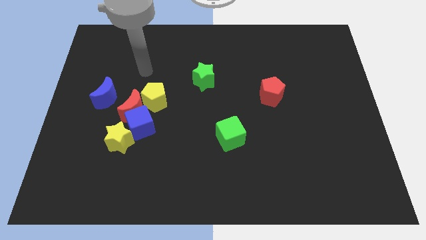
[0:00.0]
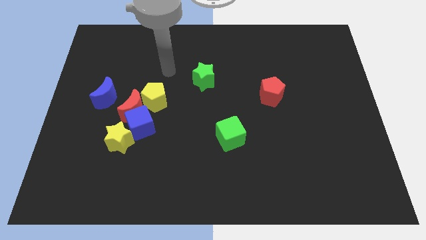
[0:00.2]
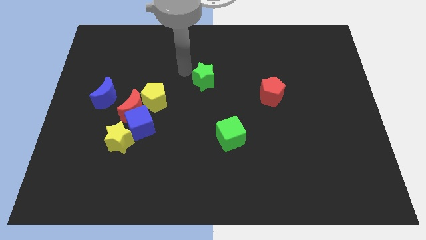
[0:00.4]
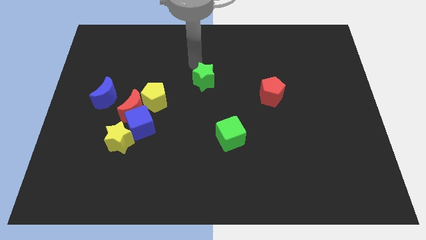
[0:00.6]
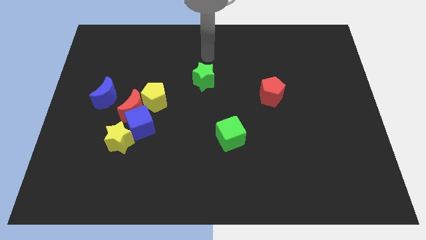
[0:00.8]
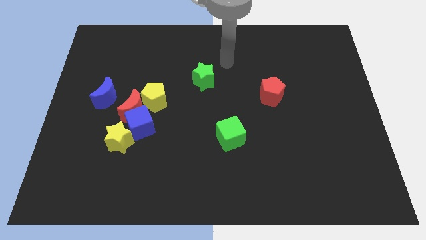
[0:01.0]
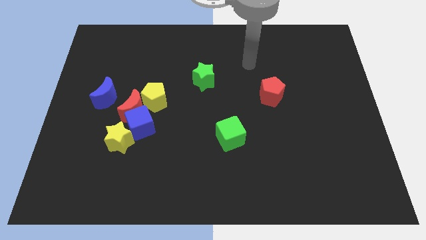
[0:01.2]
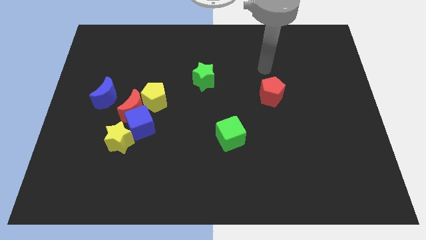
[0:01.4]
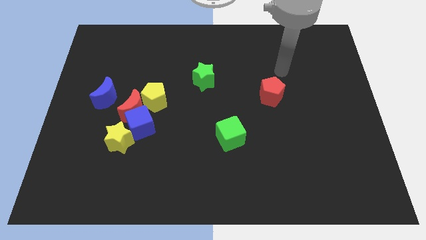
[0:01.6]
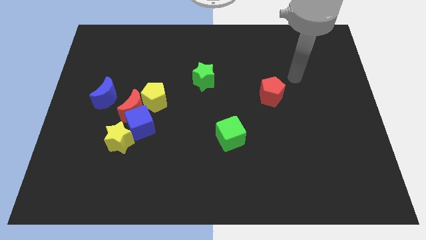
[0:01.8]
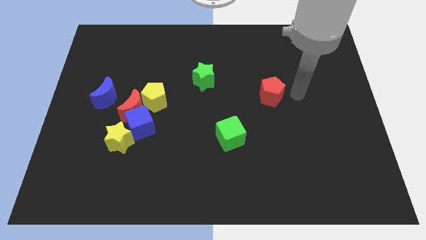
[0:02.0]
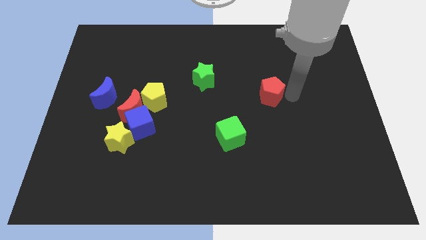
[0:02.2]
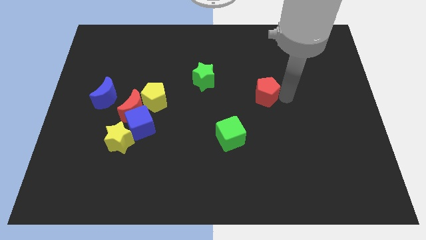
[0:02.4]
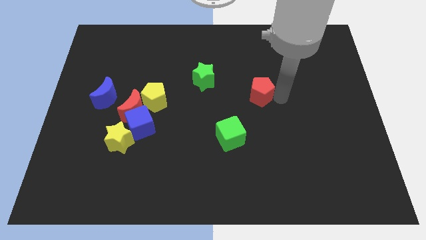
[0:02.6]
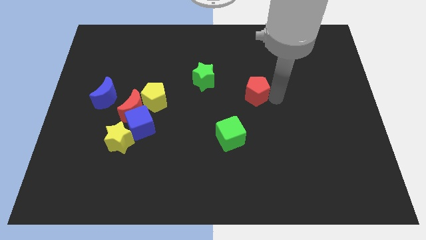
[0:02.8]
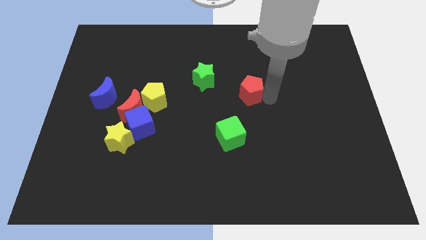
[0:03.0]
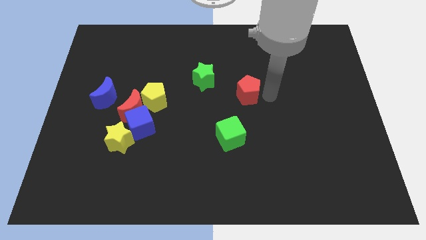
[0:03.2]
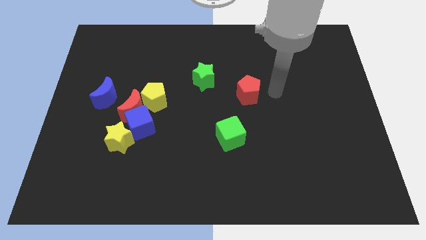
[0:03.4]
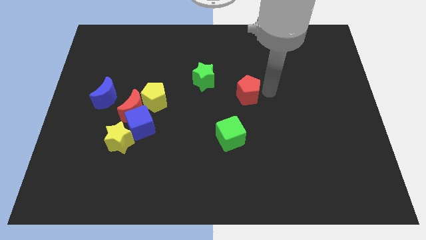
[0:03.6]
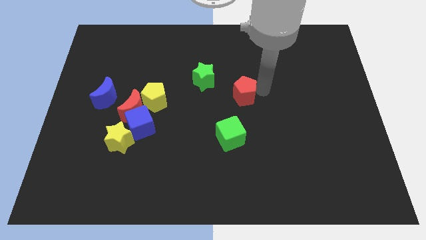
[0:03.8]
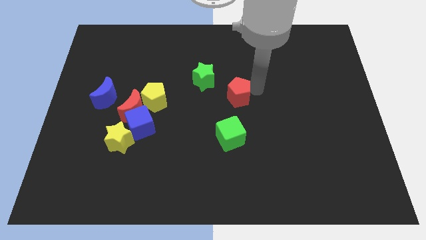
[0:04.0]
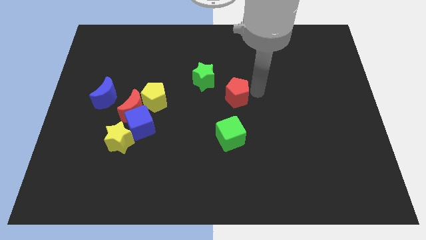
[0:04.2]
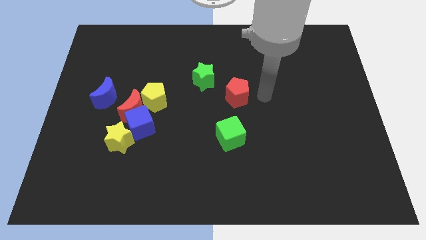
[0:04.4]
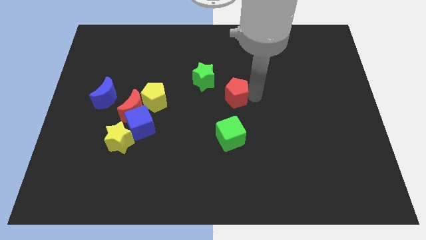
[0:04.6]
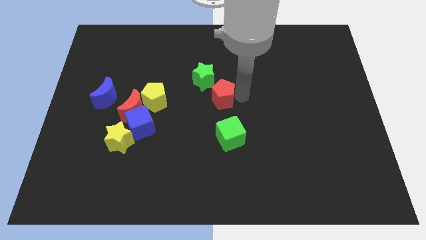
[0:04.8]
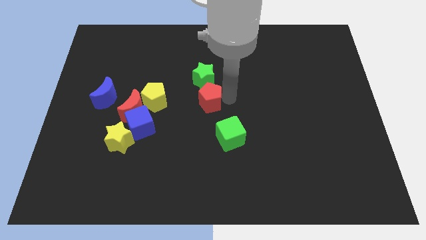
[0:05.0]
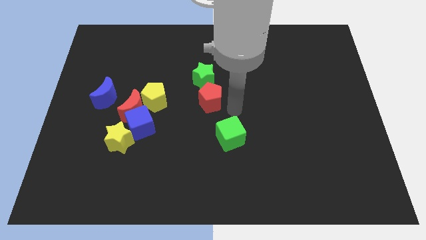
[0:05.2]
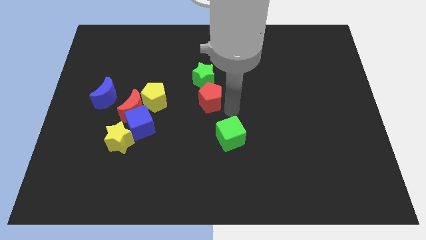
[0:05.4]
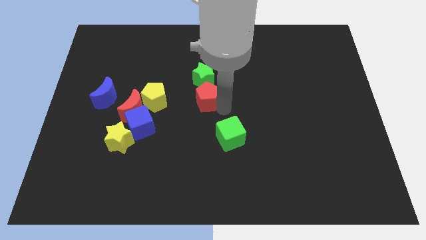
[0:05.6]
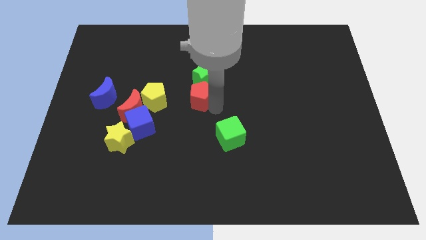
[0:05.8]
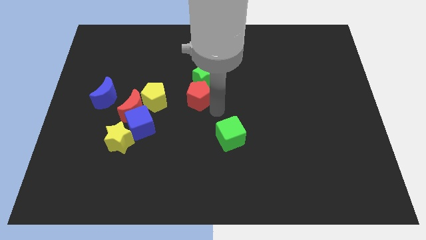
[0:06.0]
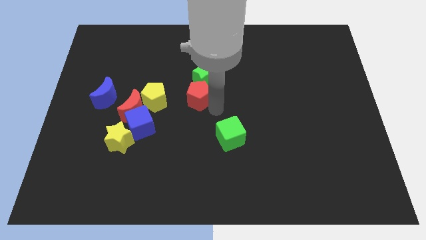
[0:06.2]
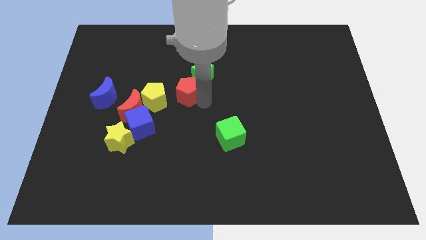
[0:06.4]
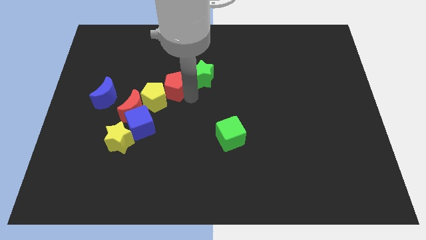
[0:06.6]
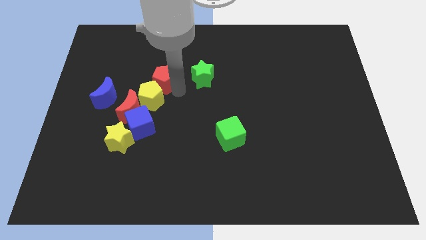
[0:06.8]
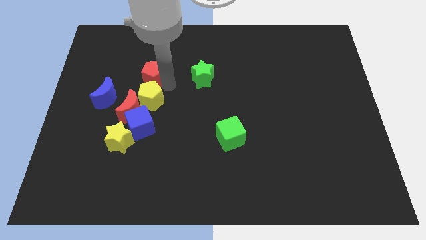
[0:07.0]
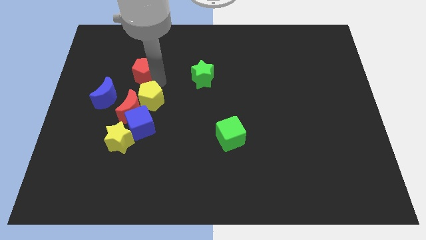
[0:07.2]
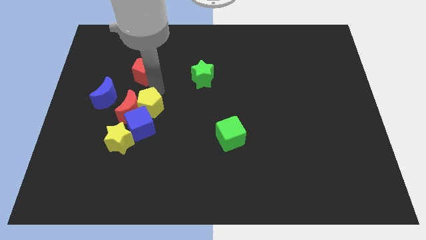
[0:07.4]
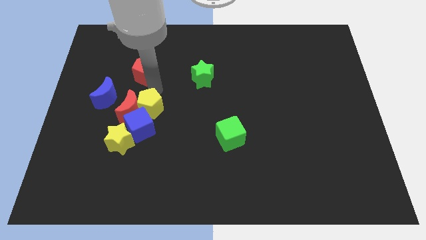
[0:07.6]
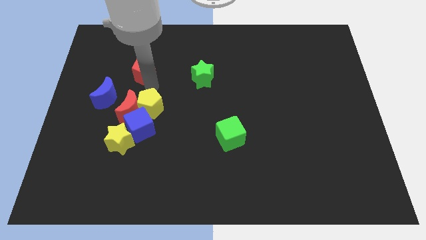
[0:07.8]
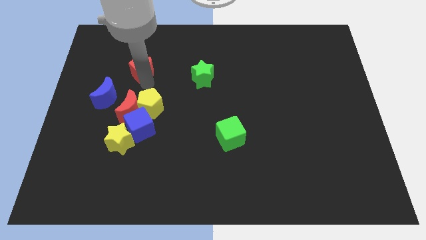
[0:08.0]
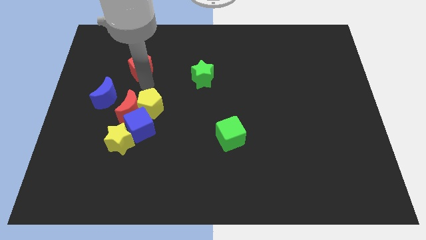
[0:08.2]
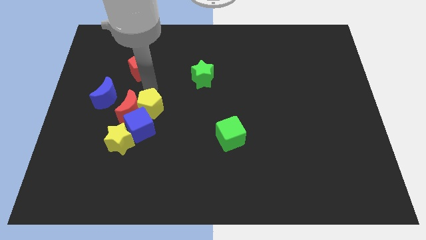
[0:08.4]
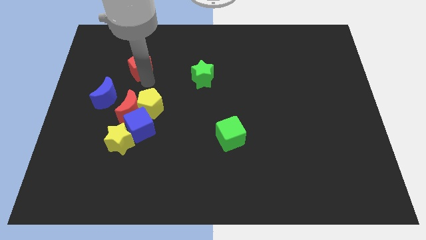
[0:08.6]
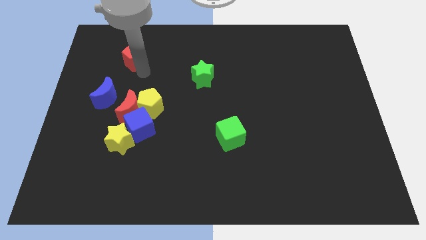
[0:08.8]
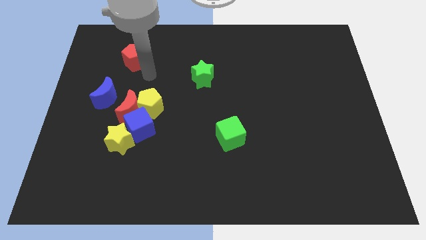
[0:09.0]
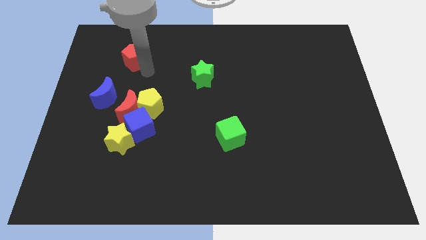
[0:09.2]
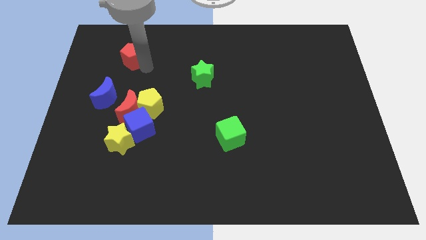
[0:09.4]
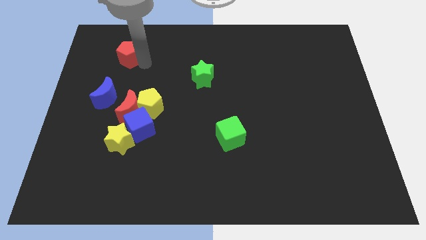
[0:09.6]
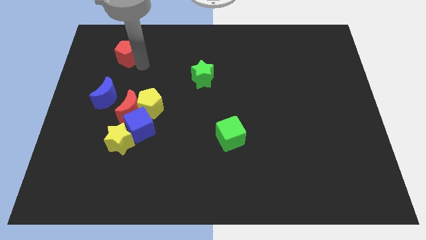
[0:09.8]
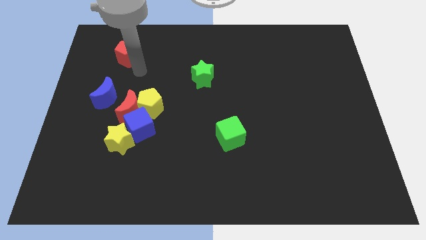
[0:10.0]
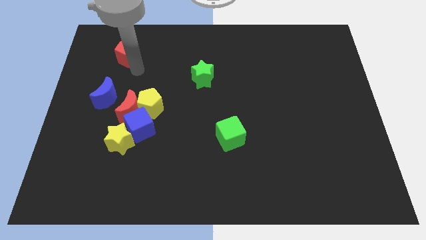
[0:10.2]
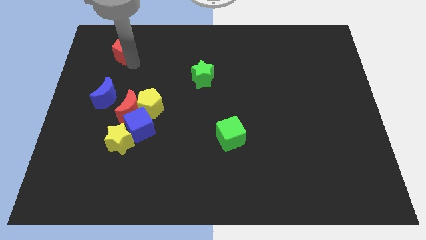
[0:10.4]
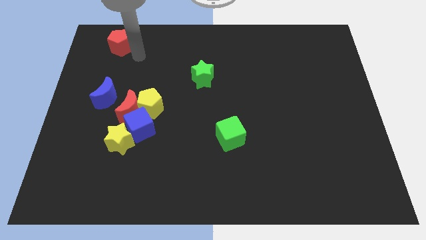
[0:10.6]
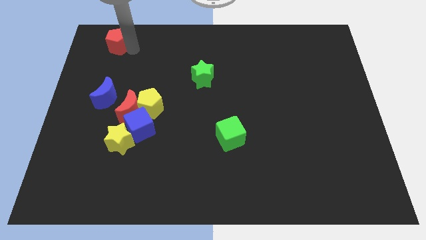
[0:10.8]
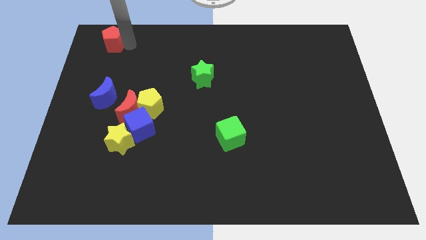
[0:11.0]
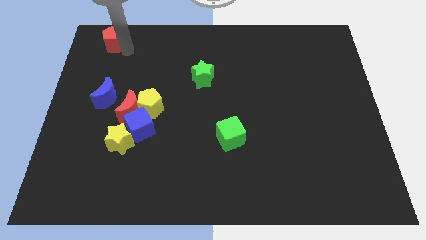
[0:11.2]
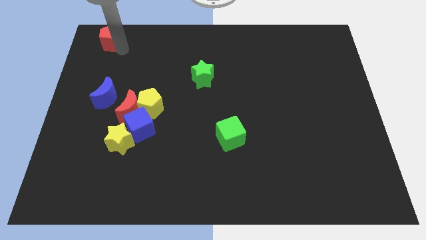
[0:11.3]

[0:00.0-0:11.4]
push the red pentagon to the top left corner

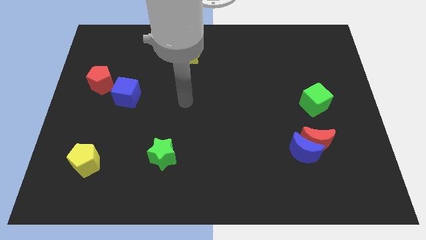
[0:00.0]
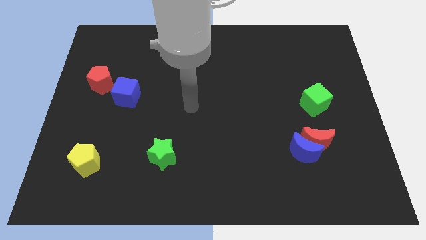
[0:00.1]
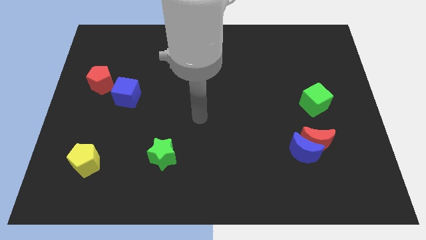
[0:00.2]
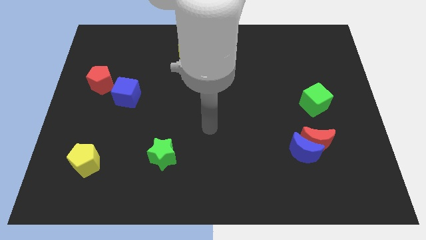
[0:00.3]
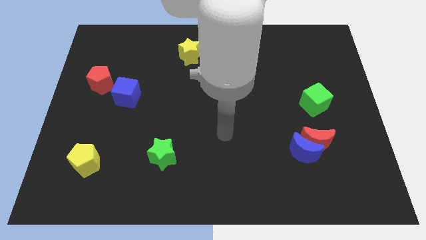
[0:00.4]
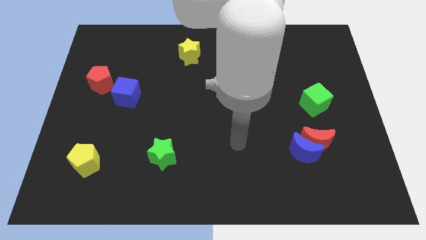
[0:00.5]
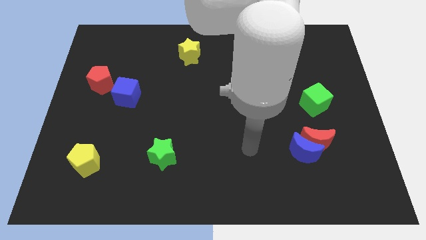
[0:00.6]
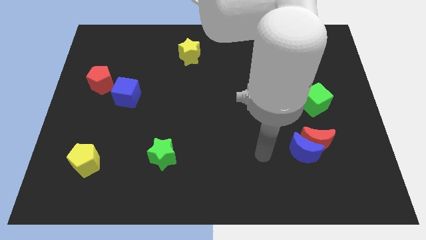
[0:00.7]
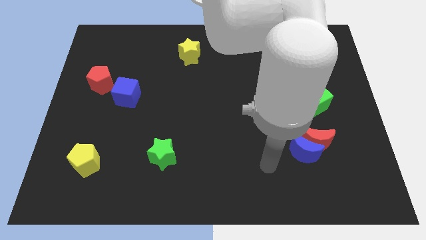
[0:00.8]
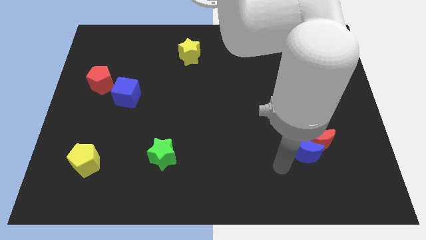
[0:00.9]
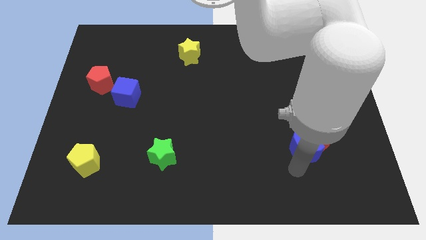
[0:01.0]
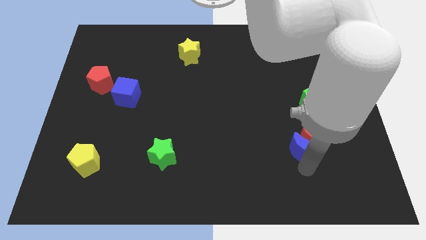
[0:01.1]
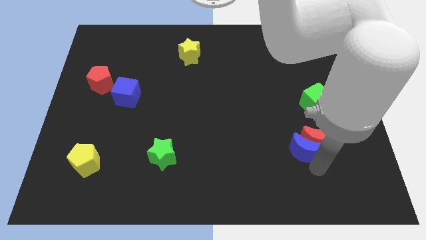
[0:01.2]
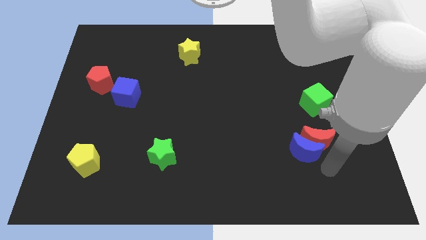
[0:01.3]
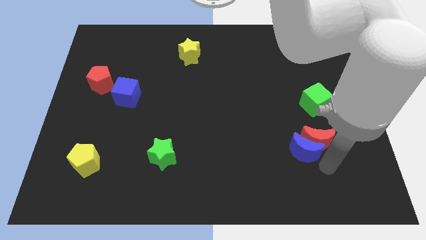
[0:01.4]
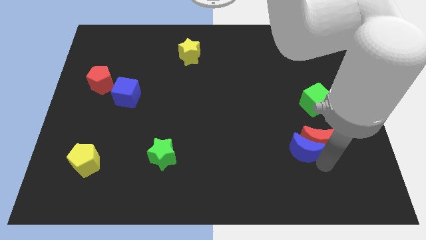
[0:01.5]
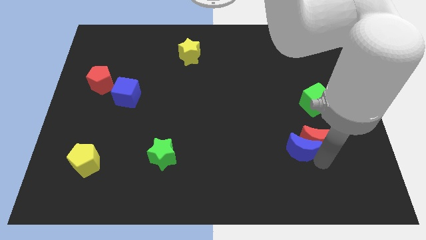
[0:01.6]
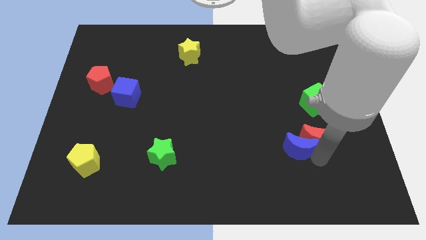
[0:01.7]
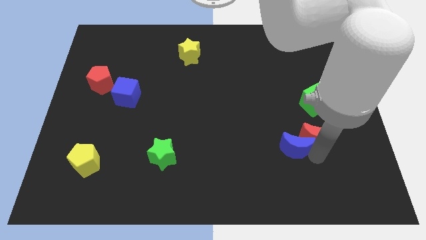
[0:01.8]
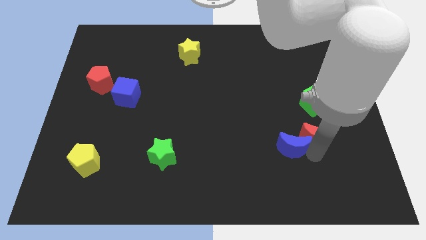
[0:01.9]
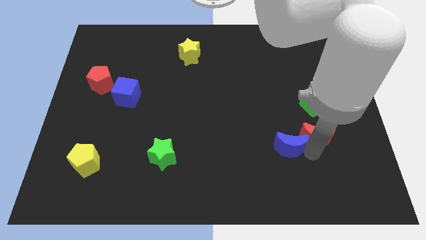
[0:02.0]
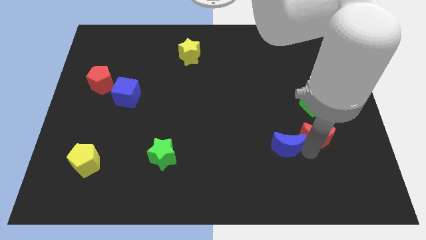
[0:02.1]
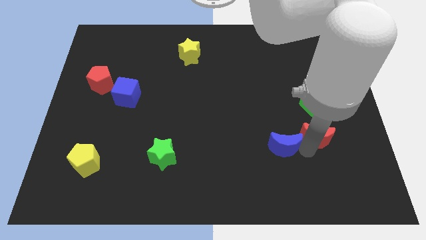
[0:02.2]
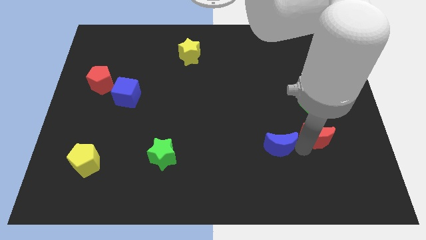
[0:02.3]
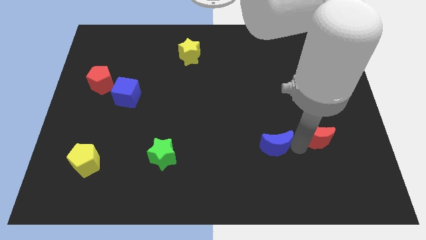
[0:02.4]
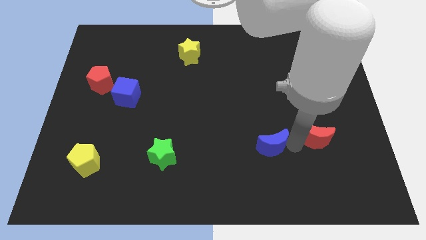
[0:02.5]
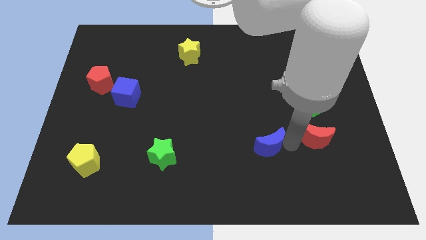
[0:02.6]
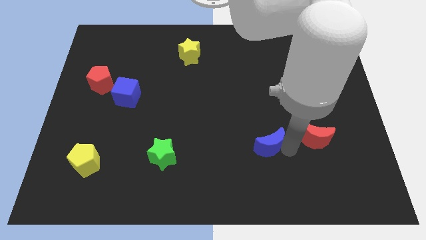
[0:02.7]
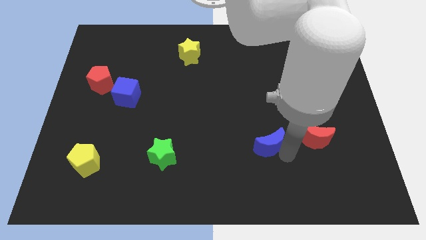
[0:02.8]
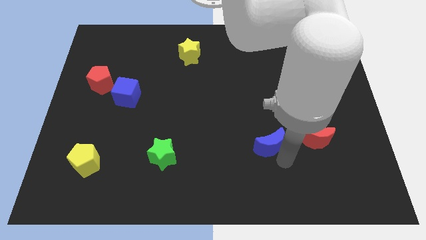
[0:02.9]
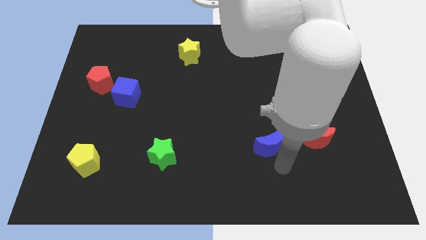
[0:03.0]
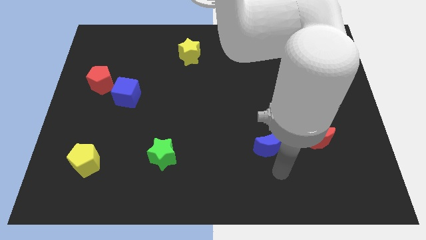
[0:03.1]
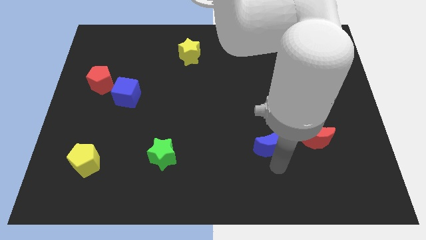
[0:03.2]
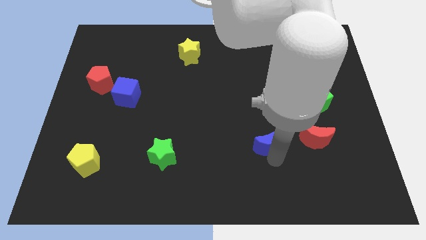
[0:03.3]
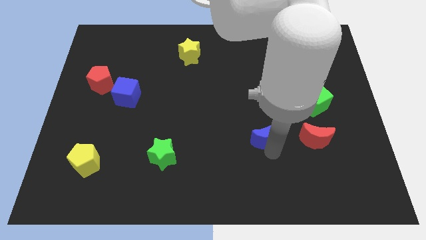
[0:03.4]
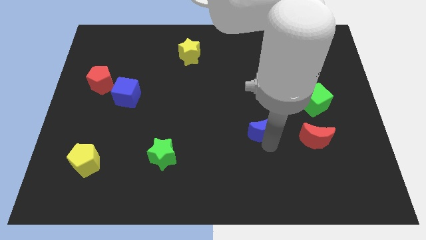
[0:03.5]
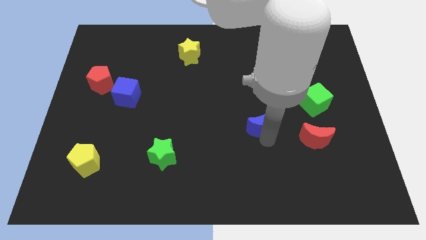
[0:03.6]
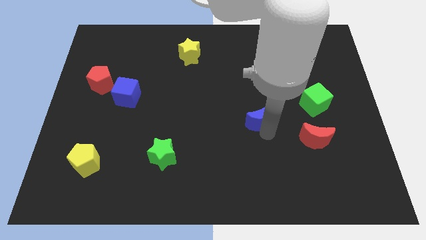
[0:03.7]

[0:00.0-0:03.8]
move the blue moon to the middle
